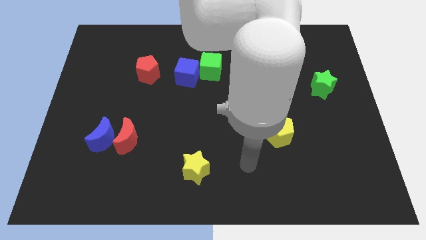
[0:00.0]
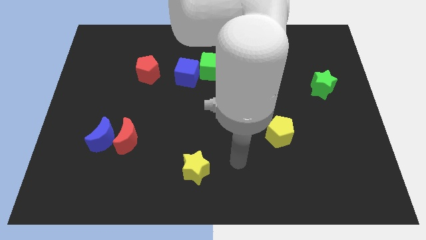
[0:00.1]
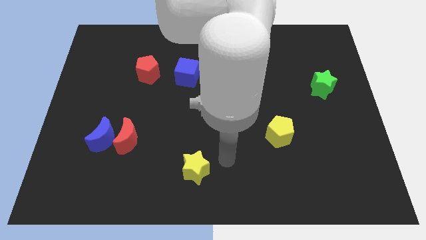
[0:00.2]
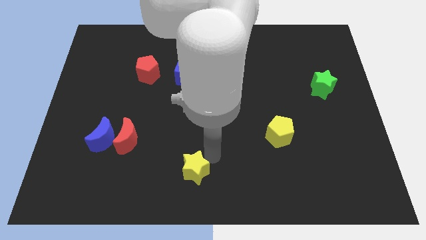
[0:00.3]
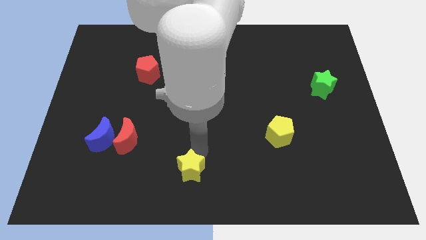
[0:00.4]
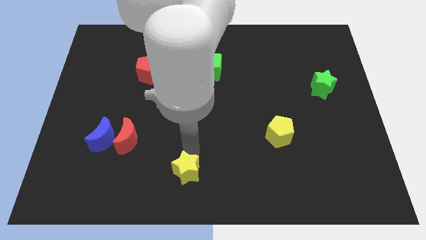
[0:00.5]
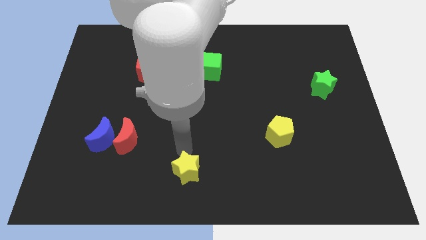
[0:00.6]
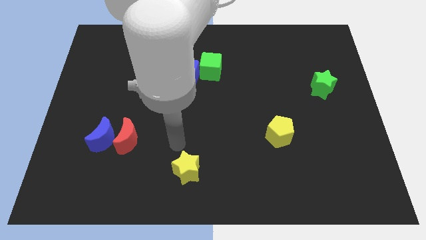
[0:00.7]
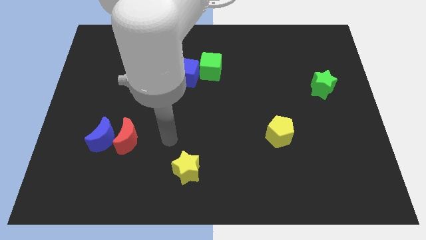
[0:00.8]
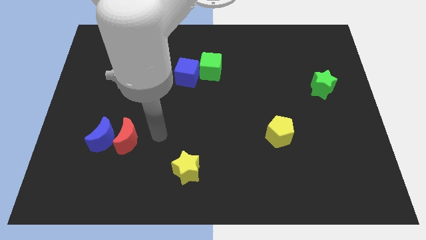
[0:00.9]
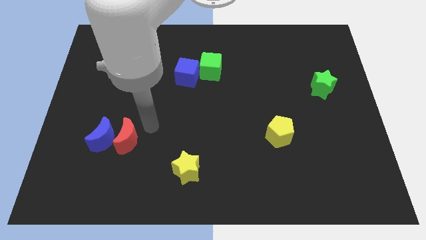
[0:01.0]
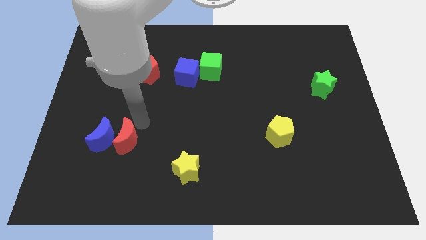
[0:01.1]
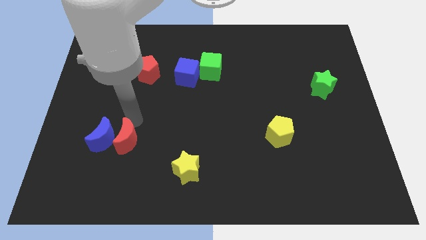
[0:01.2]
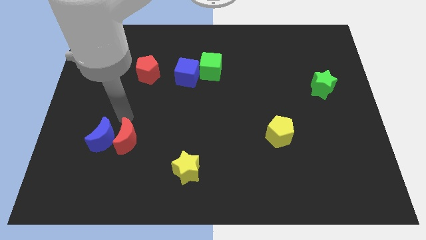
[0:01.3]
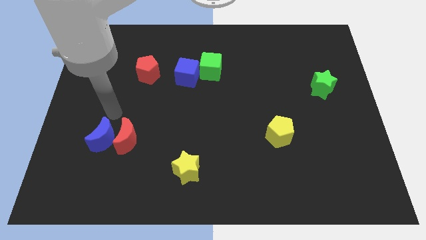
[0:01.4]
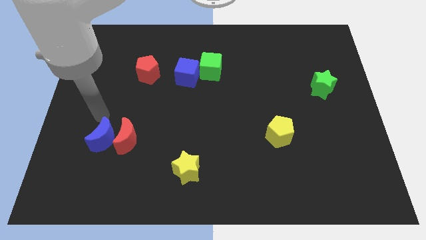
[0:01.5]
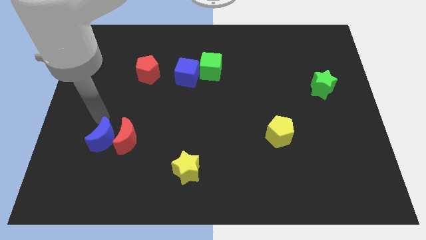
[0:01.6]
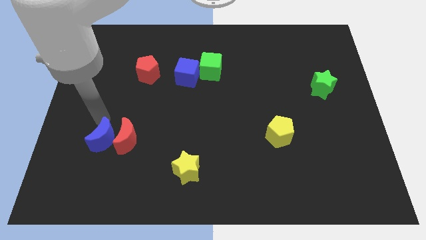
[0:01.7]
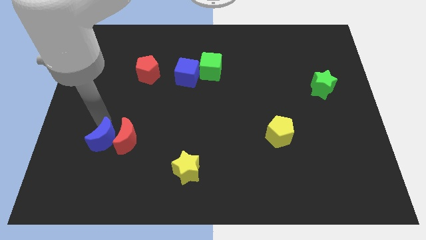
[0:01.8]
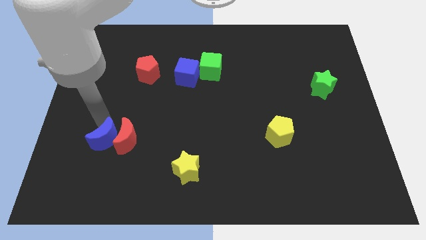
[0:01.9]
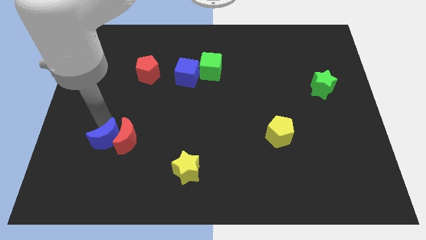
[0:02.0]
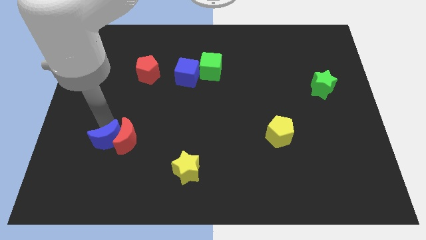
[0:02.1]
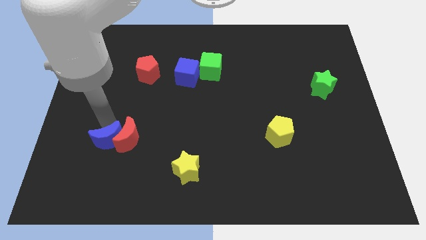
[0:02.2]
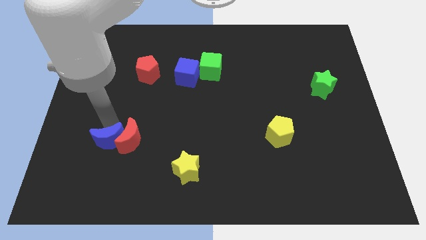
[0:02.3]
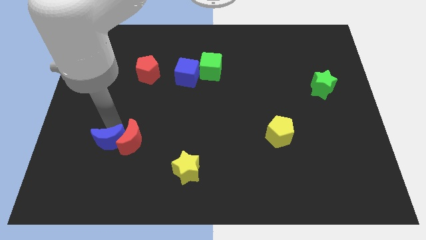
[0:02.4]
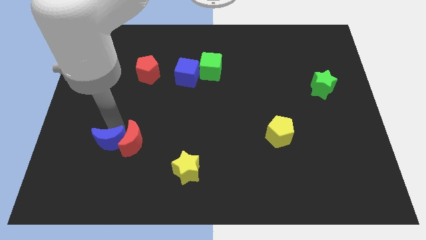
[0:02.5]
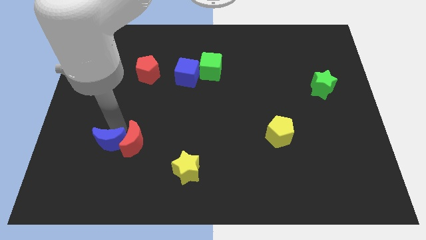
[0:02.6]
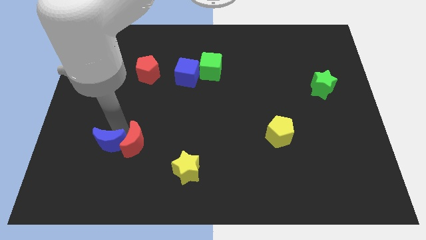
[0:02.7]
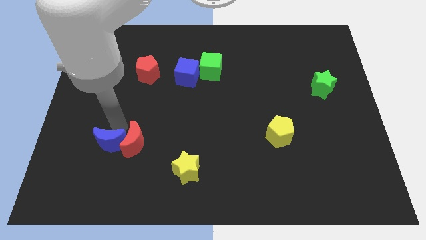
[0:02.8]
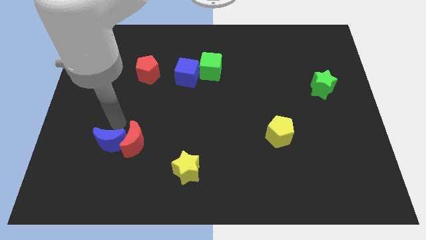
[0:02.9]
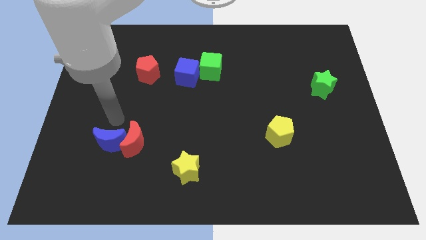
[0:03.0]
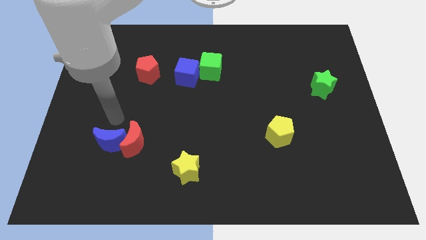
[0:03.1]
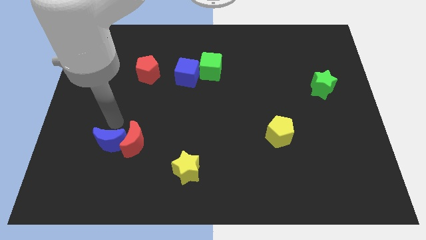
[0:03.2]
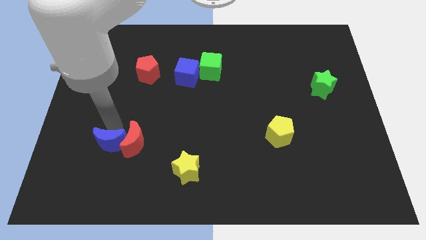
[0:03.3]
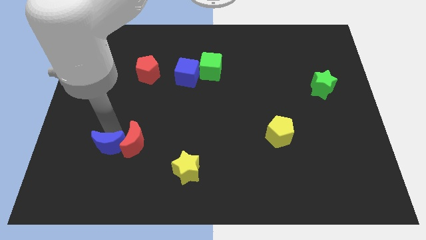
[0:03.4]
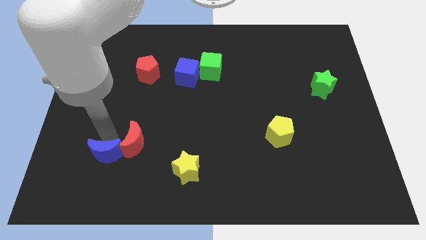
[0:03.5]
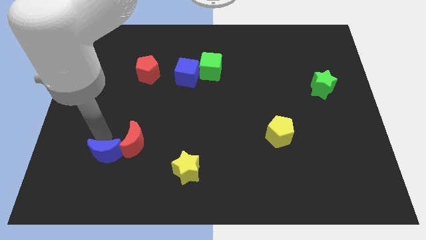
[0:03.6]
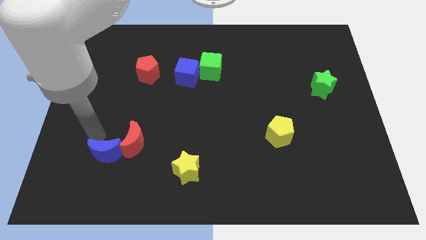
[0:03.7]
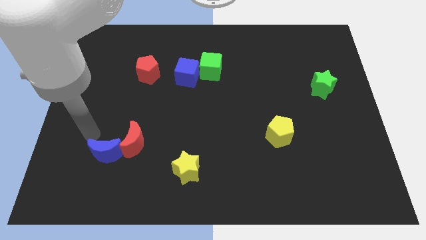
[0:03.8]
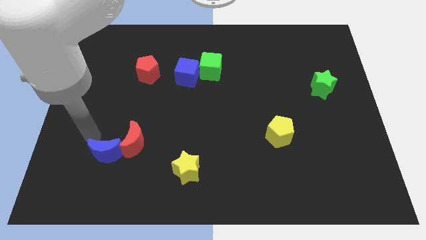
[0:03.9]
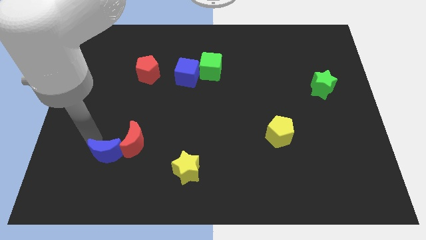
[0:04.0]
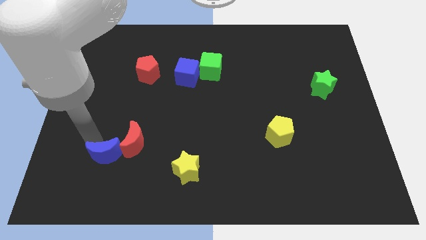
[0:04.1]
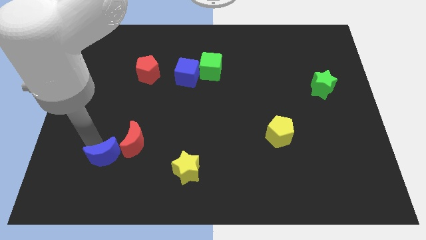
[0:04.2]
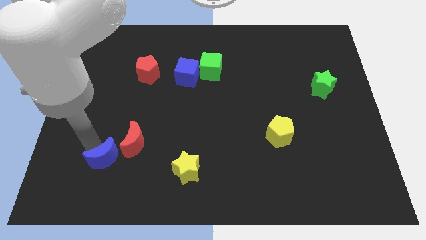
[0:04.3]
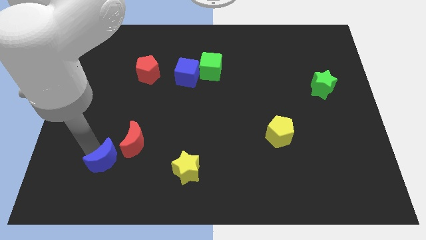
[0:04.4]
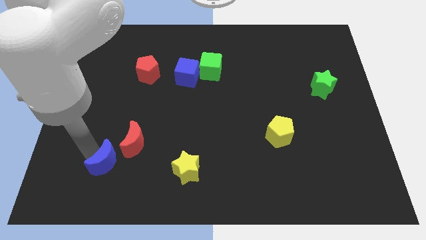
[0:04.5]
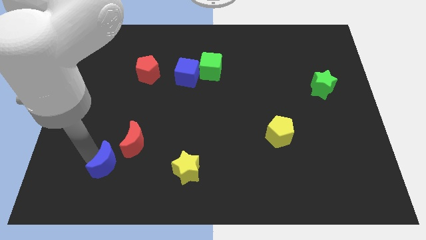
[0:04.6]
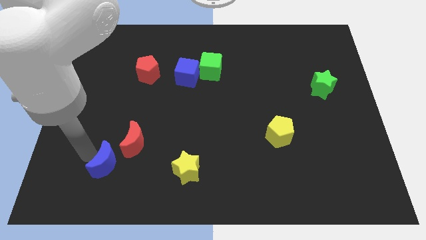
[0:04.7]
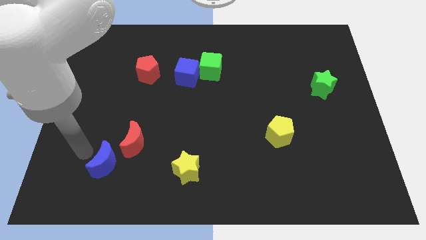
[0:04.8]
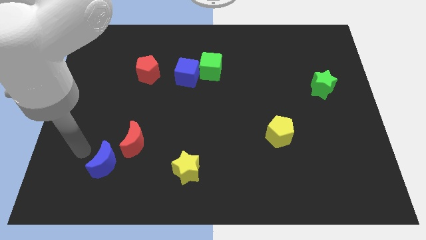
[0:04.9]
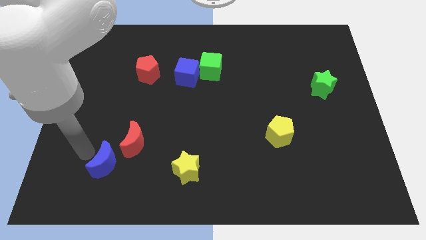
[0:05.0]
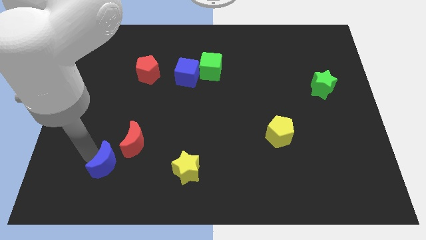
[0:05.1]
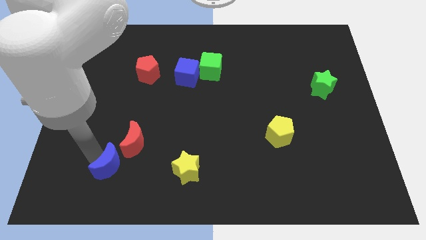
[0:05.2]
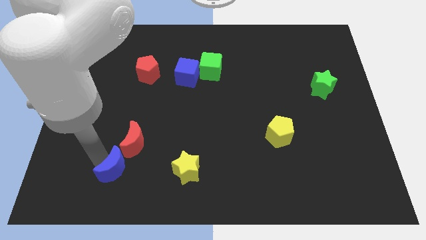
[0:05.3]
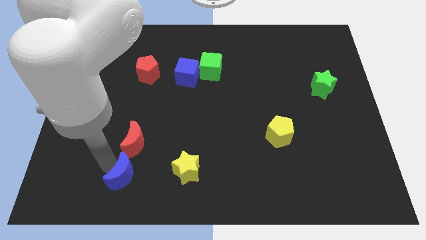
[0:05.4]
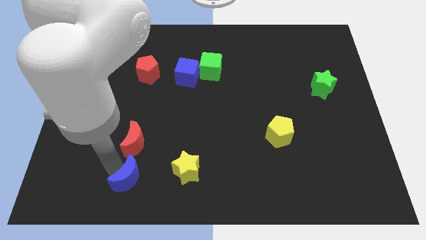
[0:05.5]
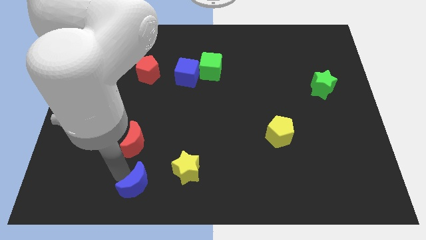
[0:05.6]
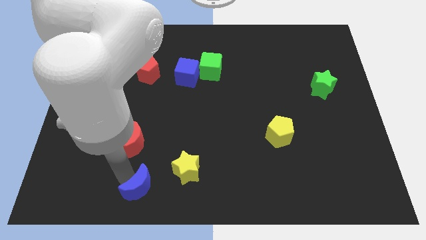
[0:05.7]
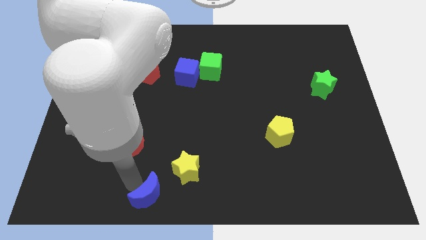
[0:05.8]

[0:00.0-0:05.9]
move the blue moon to the bottom side
